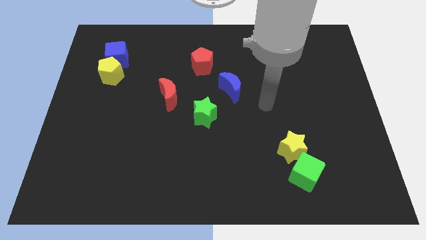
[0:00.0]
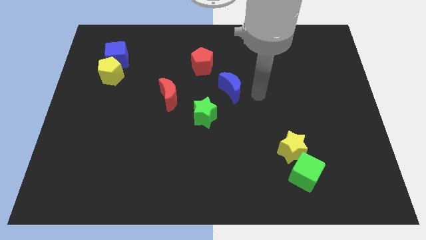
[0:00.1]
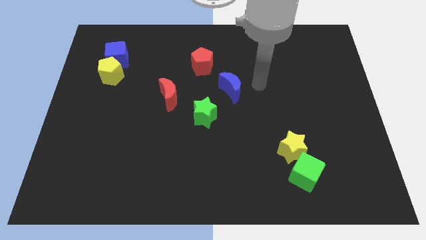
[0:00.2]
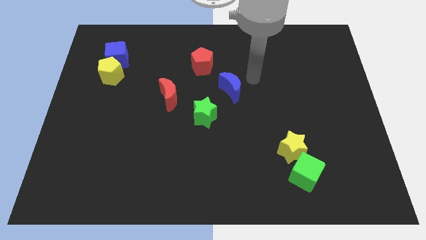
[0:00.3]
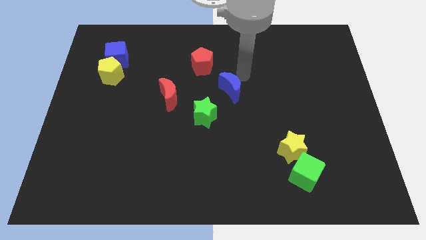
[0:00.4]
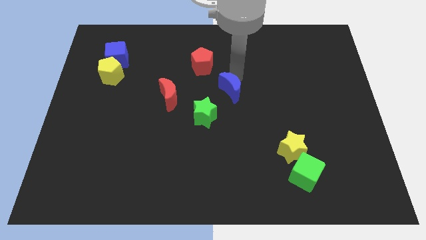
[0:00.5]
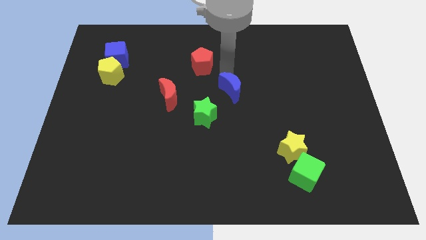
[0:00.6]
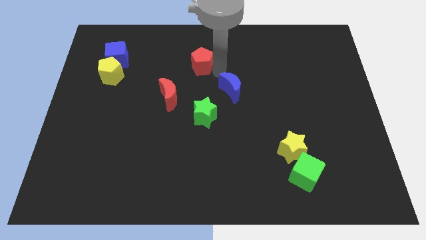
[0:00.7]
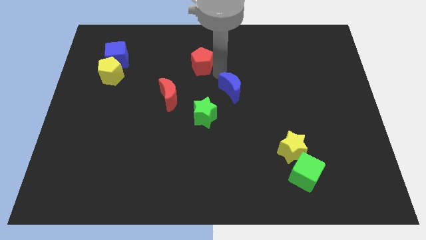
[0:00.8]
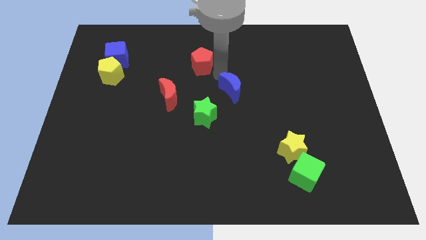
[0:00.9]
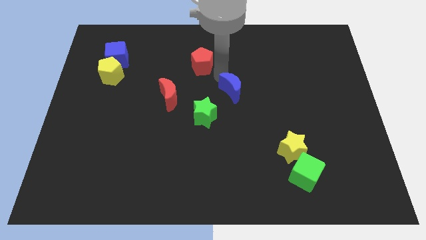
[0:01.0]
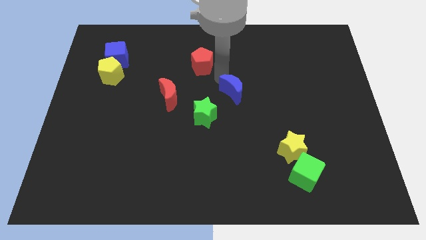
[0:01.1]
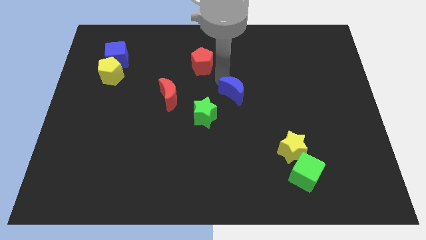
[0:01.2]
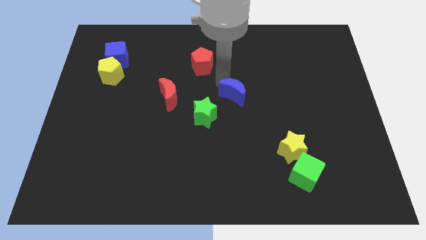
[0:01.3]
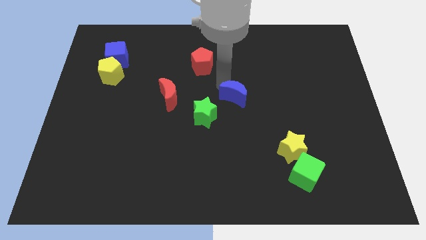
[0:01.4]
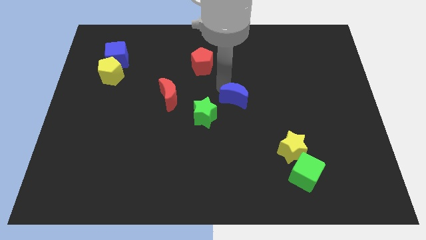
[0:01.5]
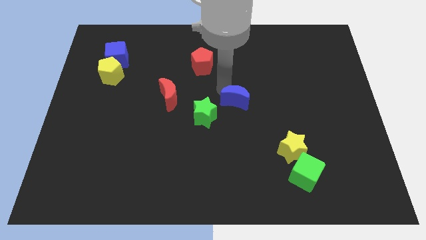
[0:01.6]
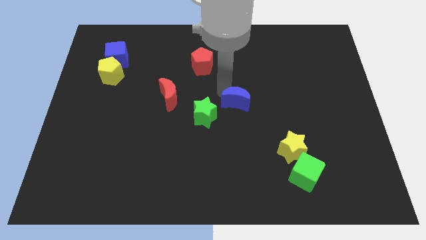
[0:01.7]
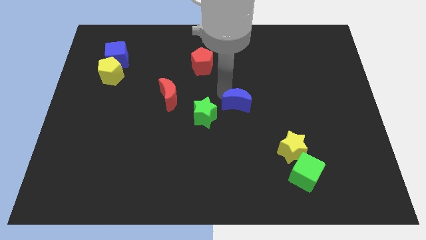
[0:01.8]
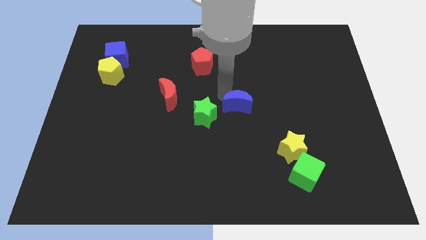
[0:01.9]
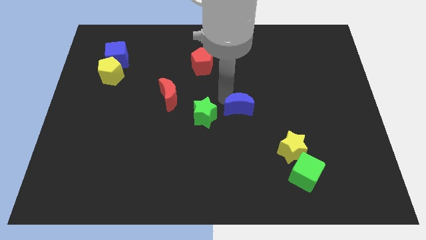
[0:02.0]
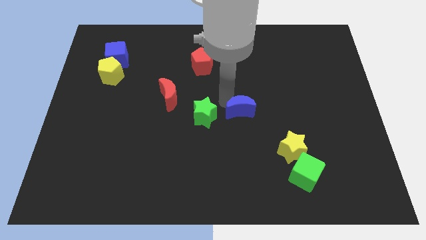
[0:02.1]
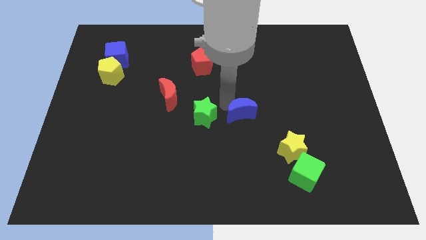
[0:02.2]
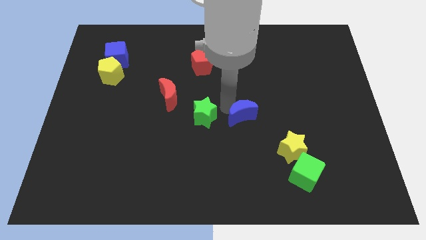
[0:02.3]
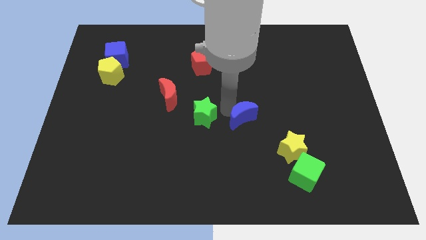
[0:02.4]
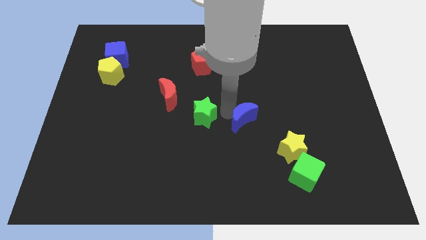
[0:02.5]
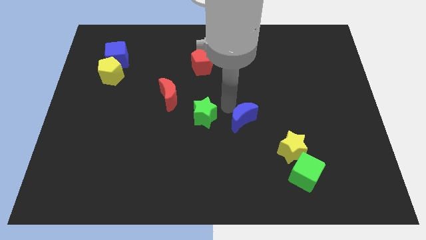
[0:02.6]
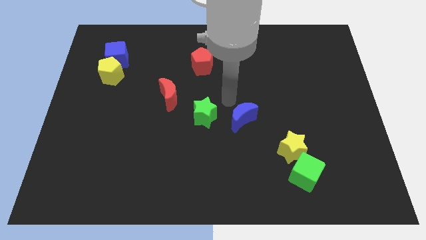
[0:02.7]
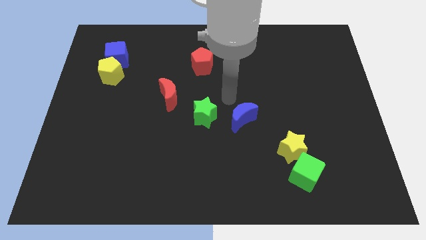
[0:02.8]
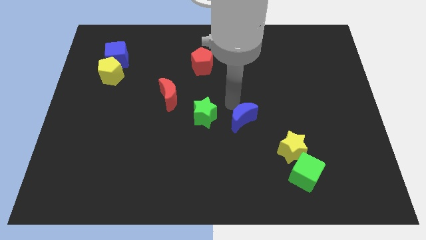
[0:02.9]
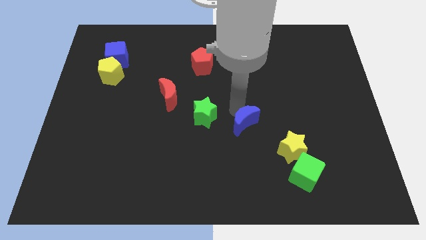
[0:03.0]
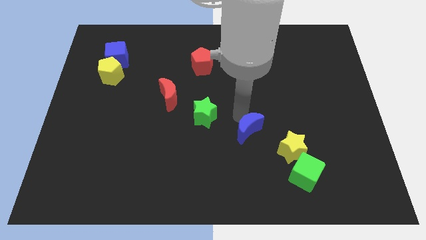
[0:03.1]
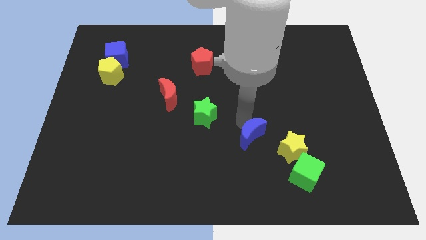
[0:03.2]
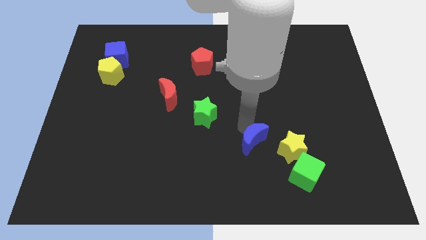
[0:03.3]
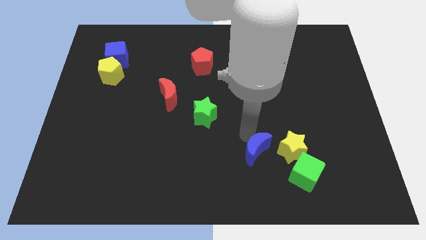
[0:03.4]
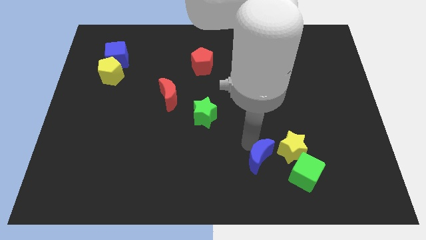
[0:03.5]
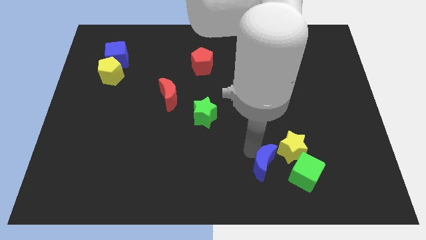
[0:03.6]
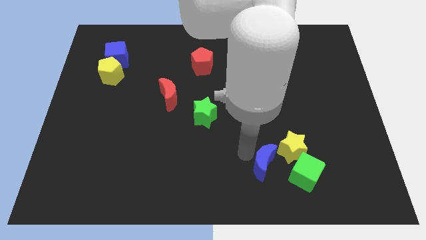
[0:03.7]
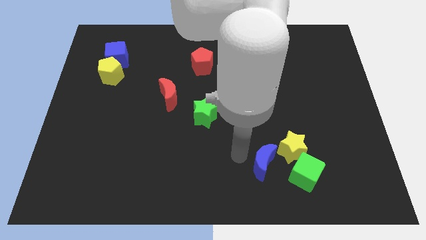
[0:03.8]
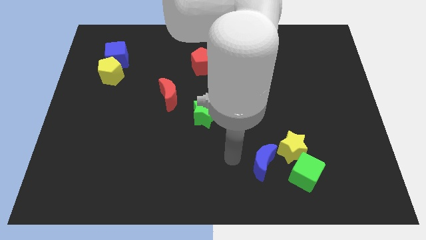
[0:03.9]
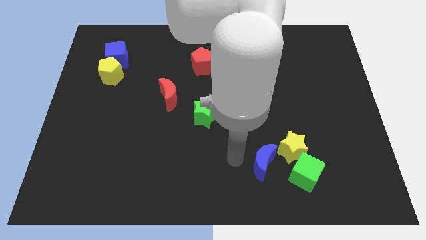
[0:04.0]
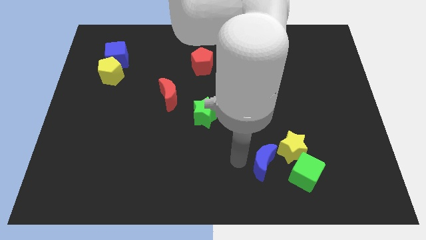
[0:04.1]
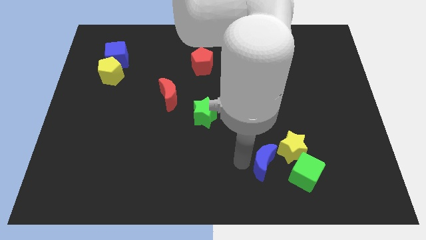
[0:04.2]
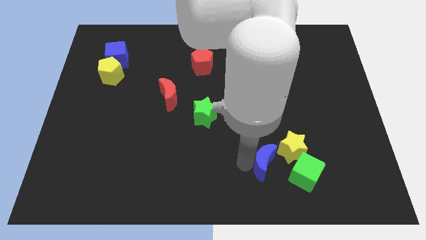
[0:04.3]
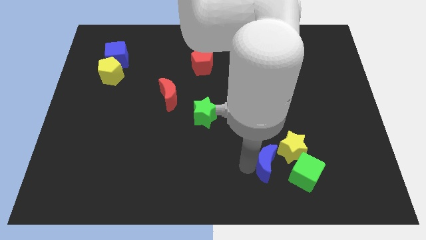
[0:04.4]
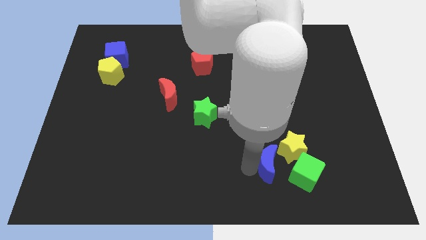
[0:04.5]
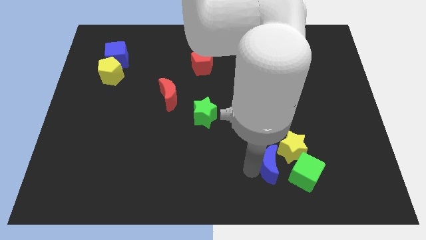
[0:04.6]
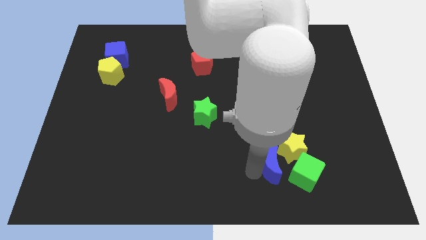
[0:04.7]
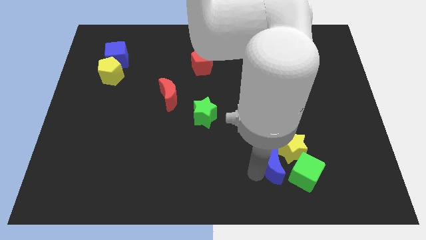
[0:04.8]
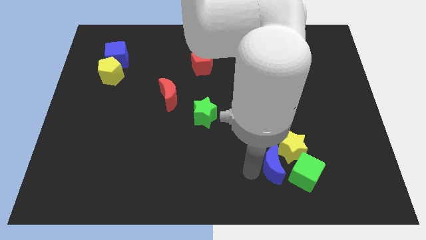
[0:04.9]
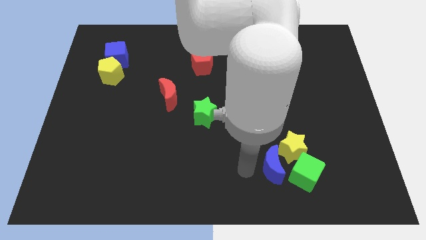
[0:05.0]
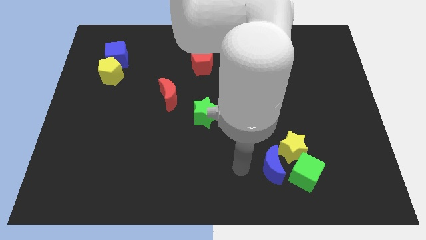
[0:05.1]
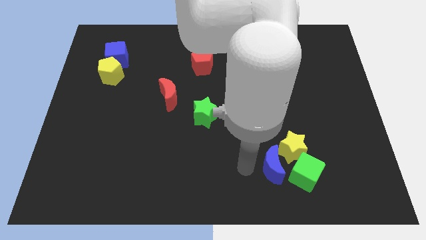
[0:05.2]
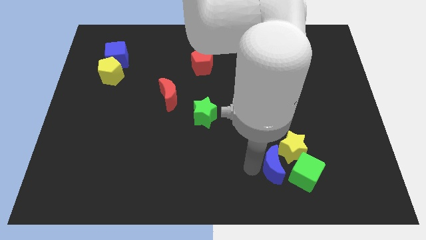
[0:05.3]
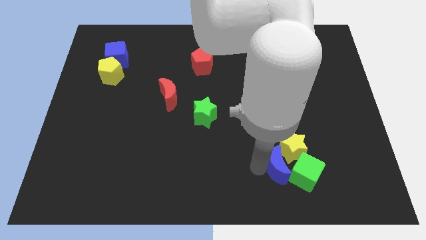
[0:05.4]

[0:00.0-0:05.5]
put the blue moon to the green cube

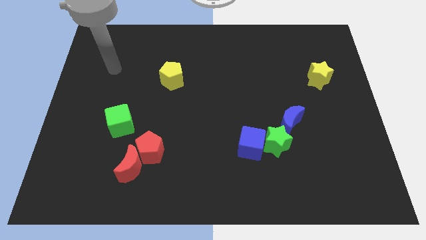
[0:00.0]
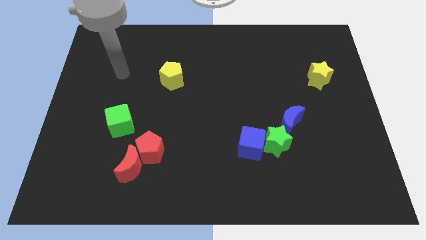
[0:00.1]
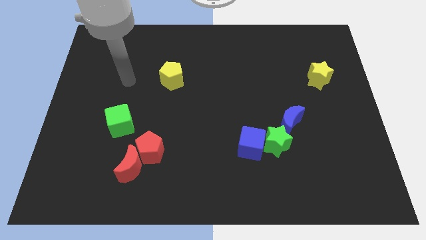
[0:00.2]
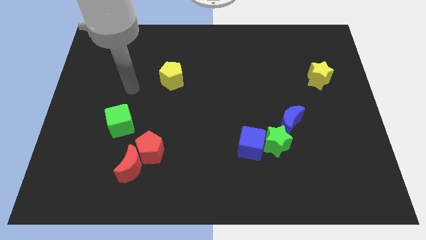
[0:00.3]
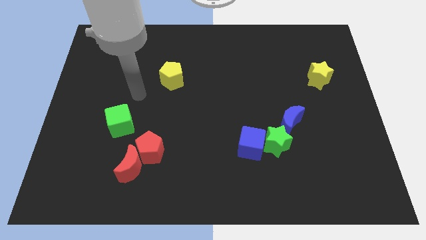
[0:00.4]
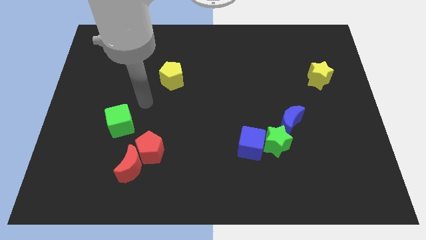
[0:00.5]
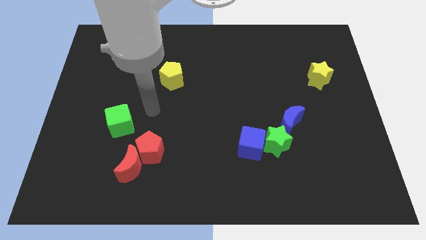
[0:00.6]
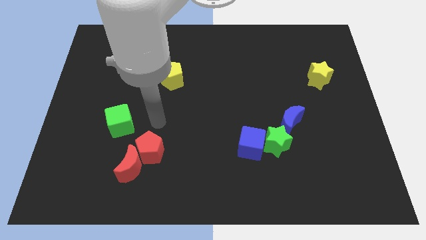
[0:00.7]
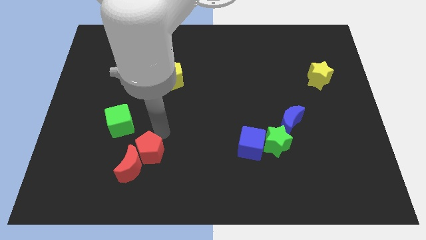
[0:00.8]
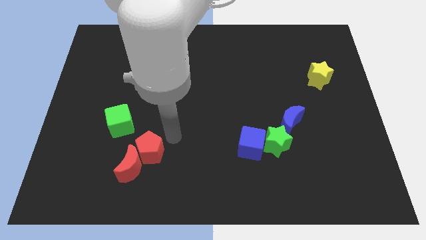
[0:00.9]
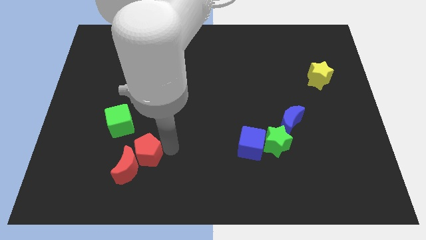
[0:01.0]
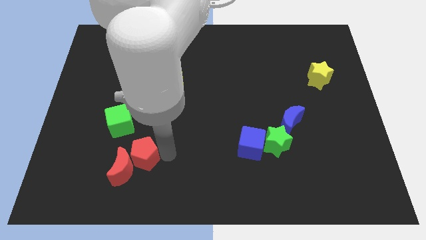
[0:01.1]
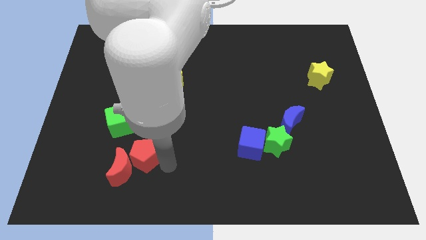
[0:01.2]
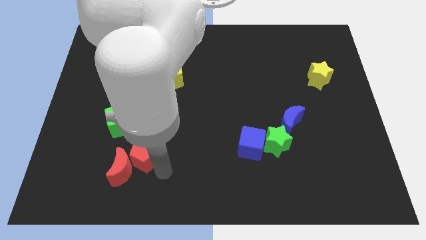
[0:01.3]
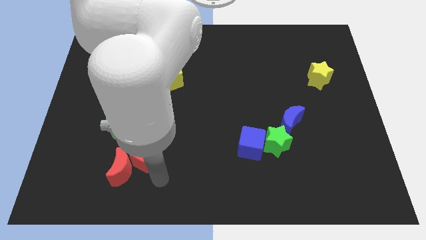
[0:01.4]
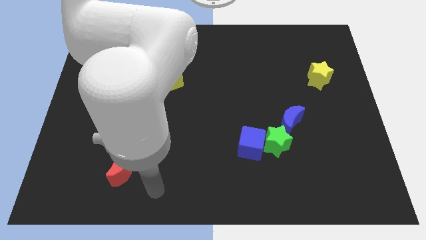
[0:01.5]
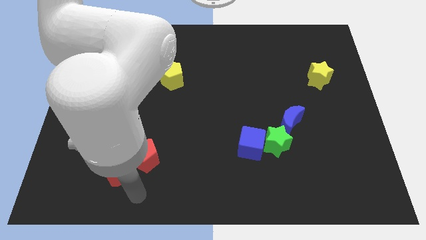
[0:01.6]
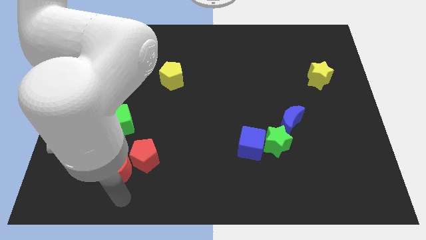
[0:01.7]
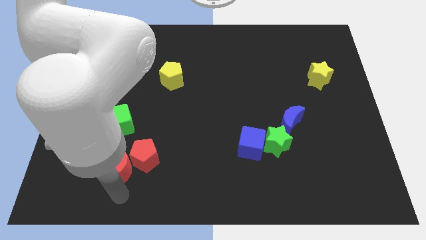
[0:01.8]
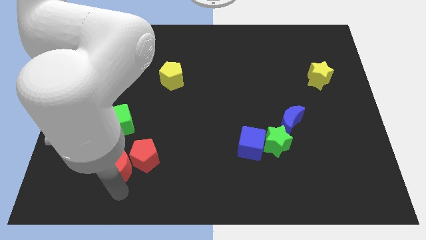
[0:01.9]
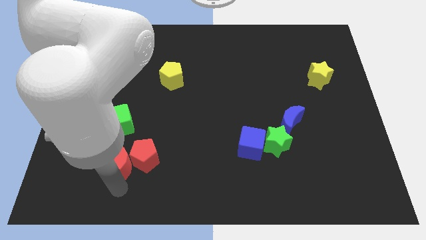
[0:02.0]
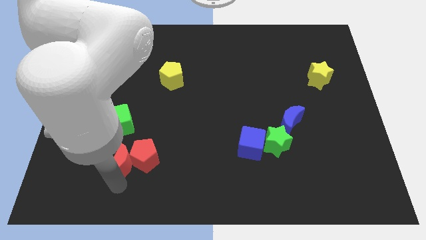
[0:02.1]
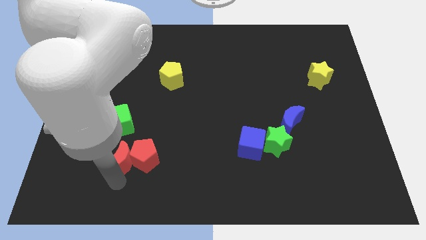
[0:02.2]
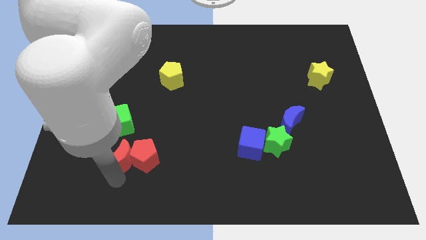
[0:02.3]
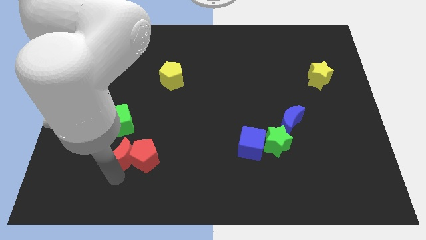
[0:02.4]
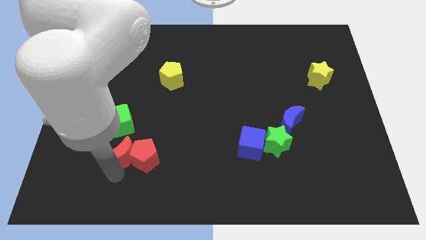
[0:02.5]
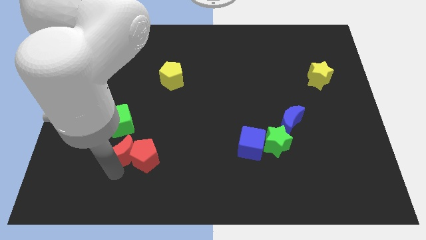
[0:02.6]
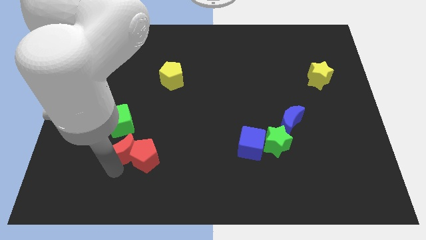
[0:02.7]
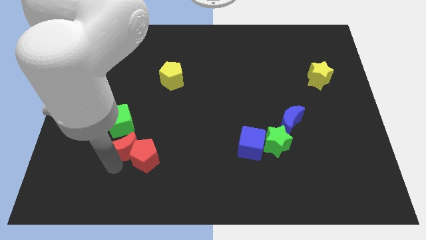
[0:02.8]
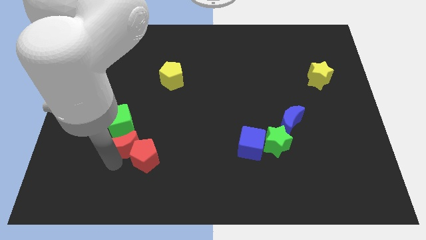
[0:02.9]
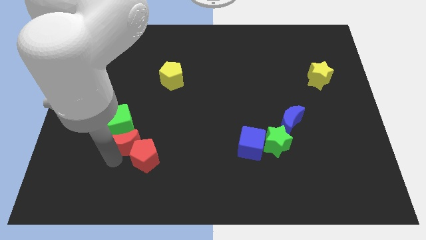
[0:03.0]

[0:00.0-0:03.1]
slide the red moon close to the green cube
